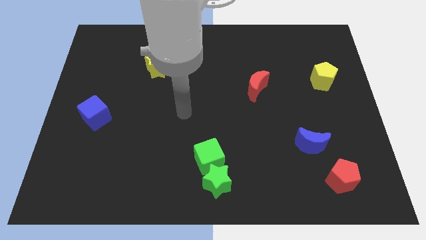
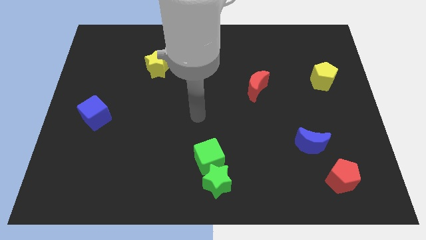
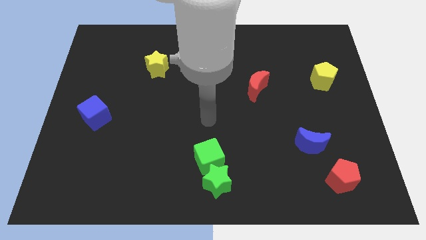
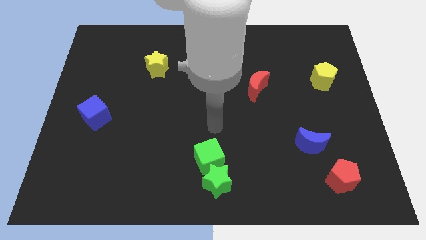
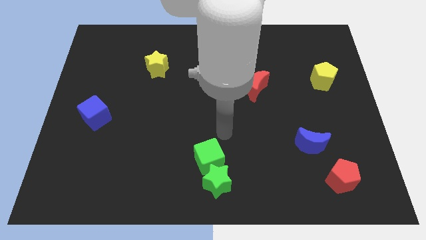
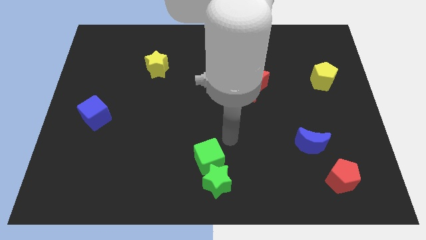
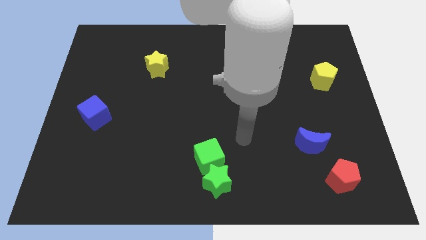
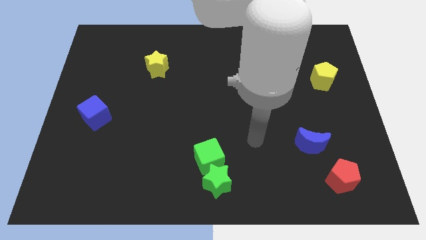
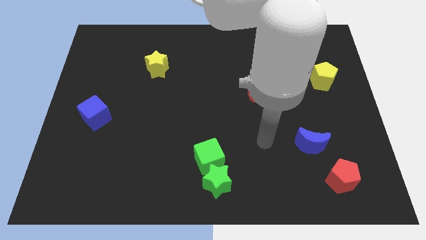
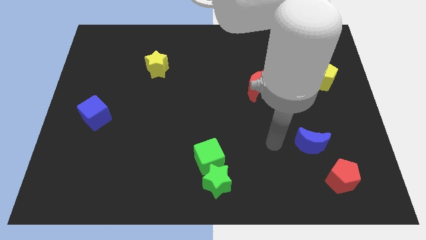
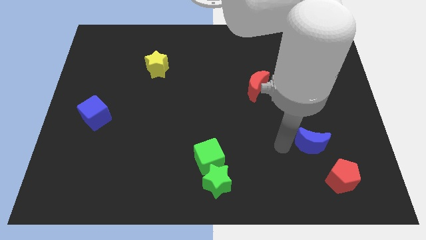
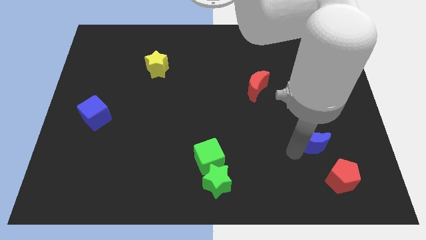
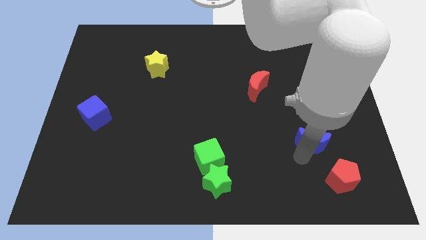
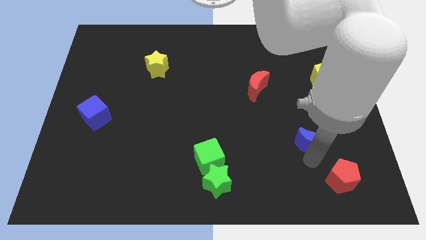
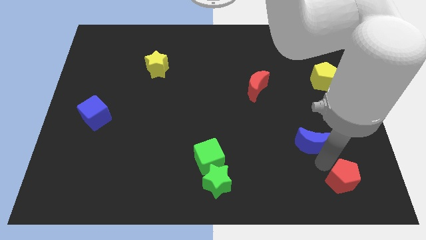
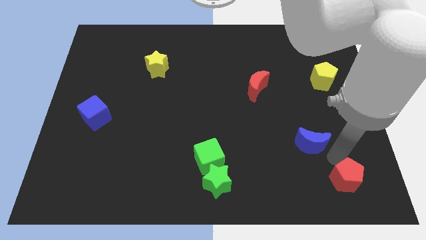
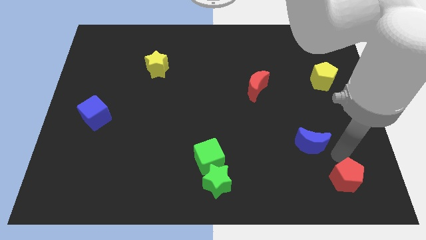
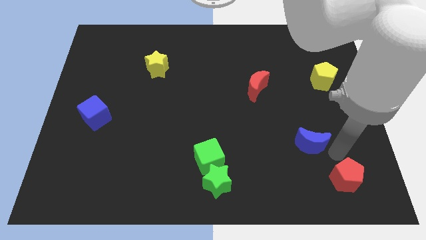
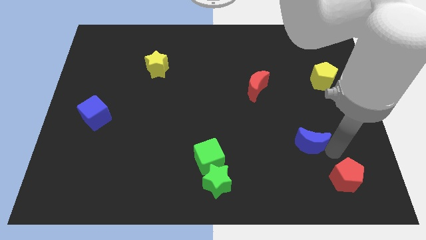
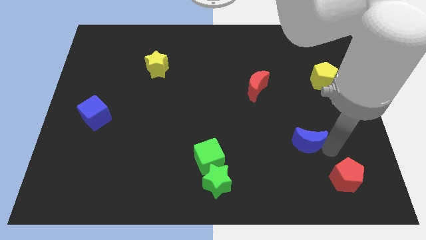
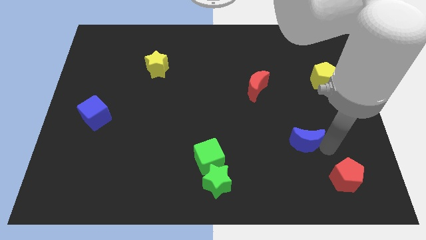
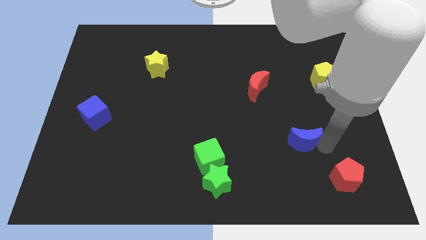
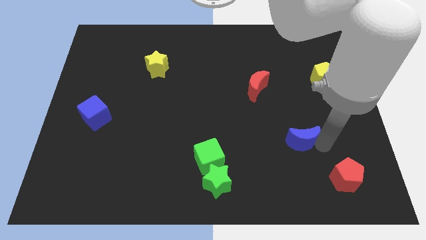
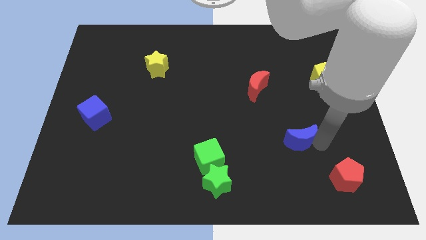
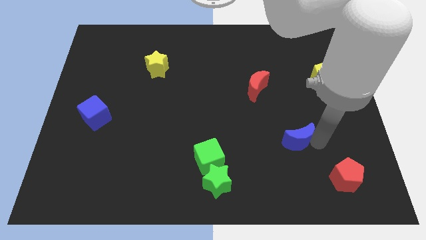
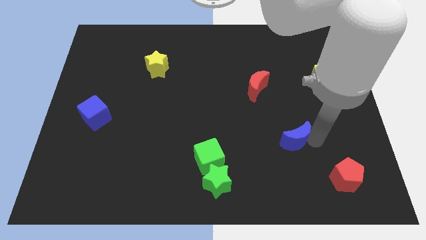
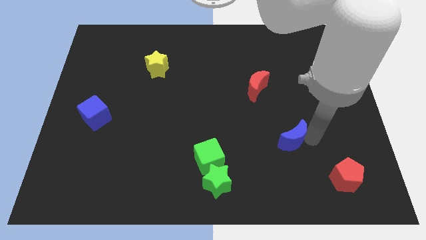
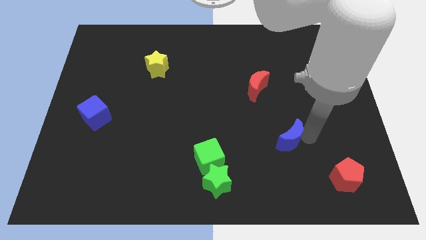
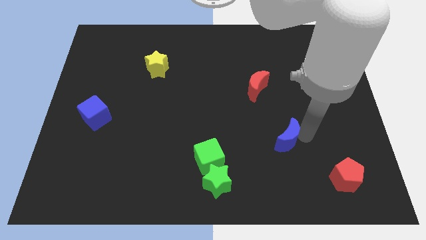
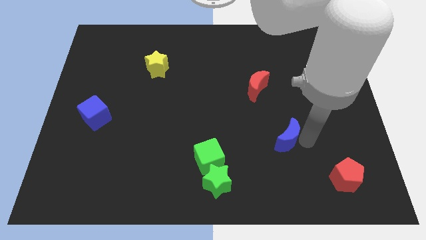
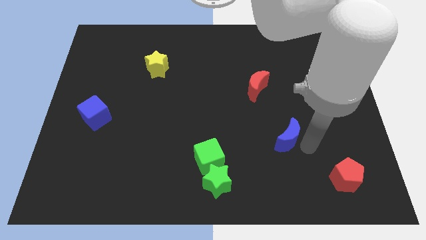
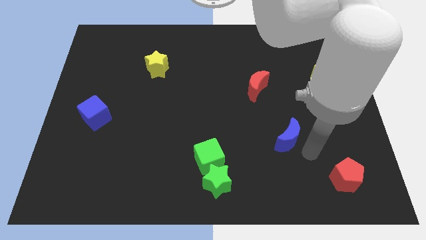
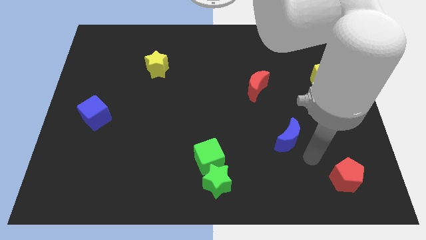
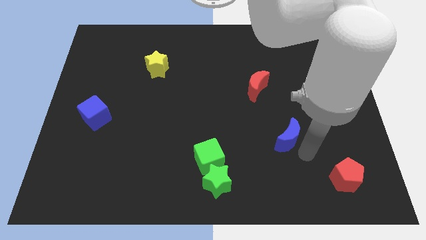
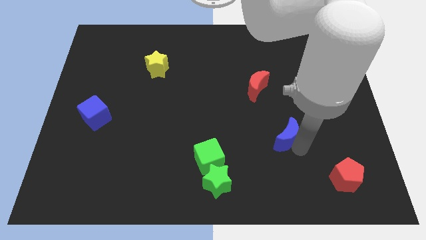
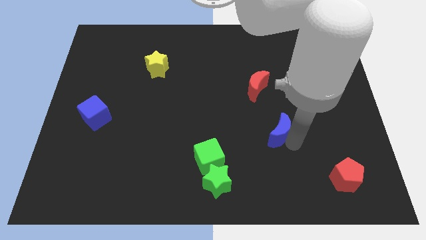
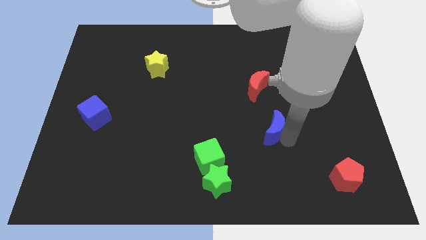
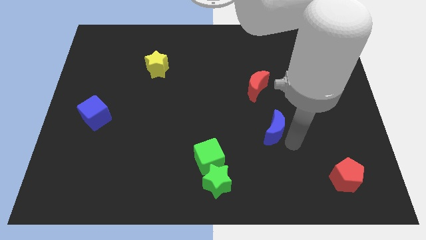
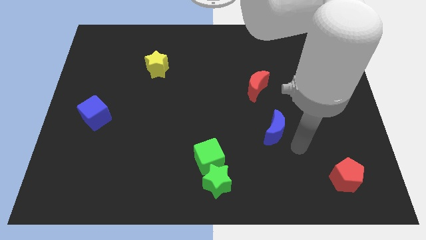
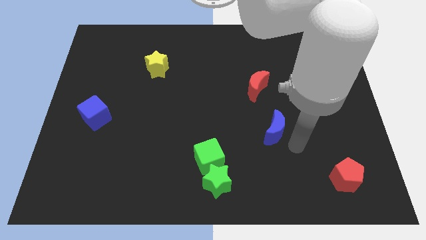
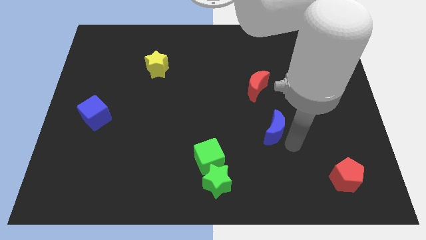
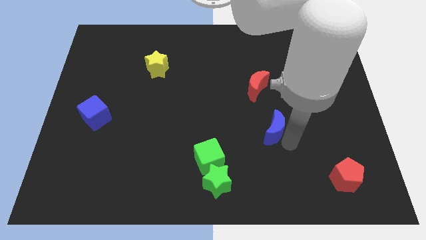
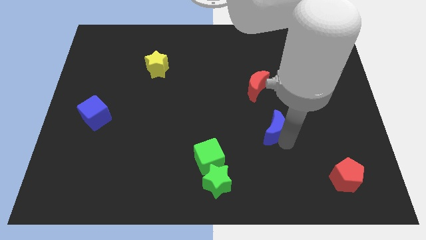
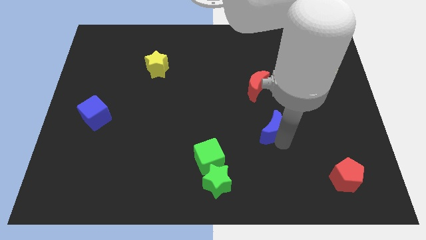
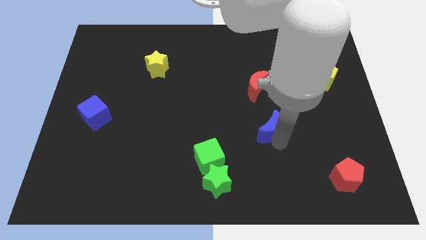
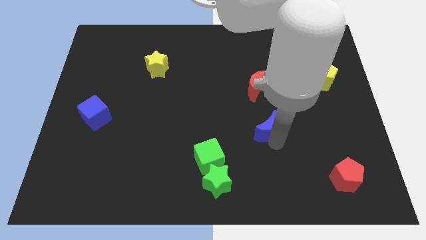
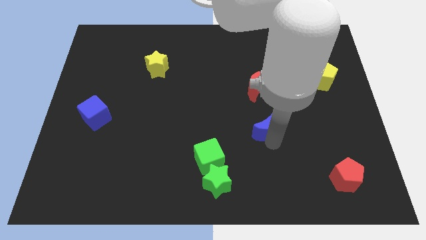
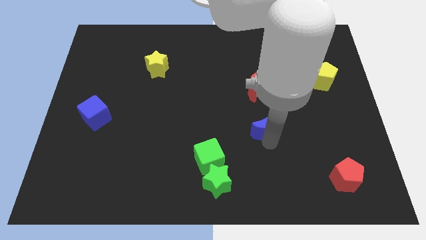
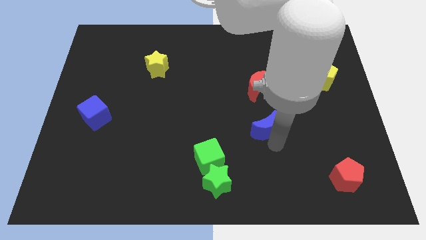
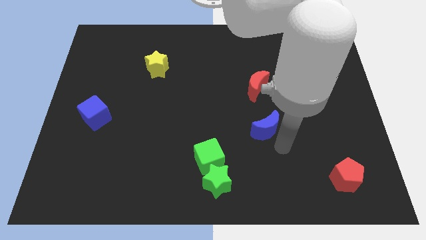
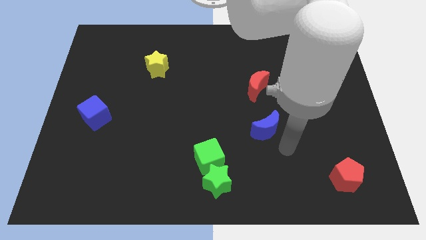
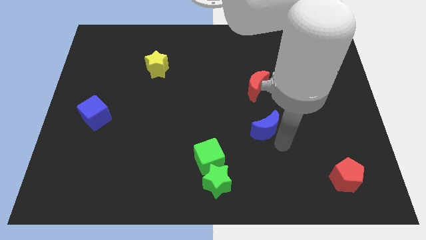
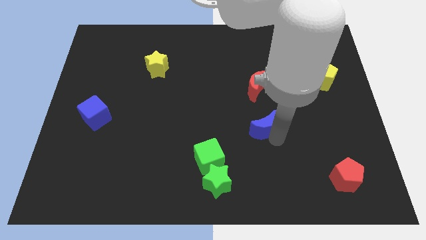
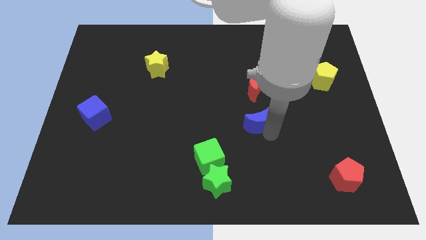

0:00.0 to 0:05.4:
put the blue moon to the middle
